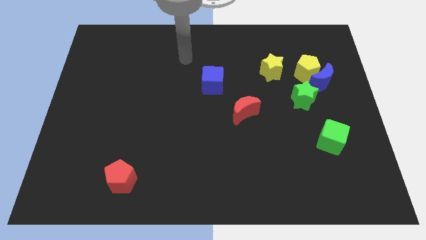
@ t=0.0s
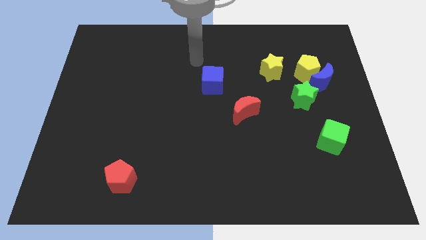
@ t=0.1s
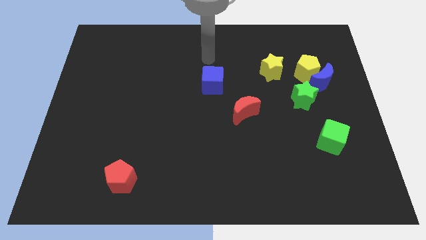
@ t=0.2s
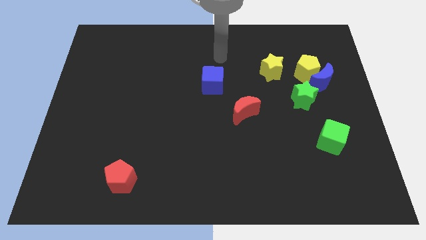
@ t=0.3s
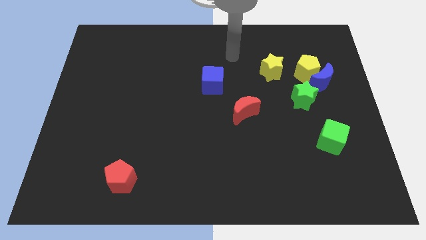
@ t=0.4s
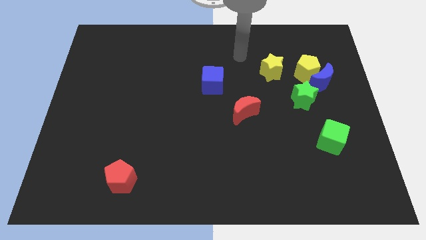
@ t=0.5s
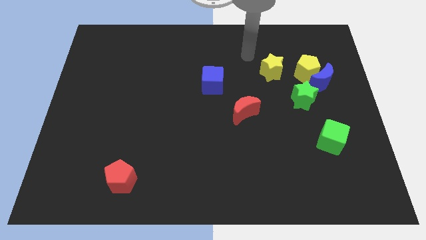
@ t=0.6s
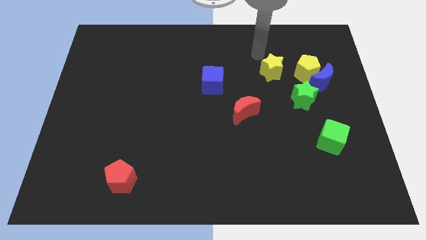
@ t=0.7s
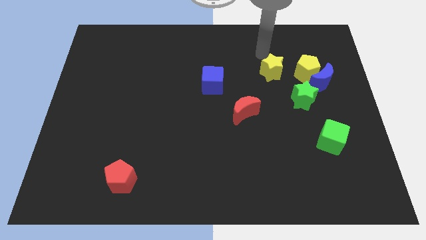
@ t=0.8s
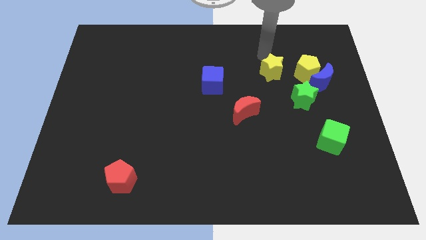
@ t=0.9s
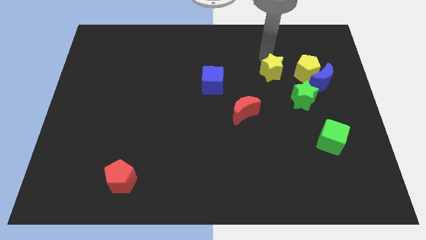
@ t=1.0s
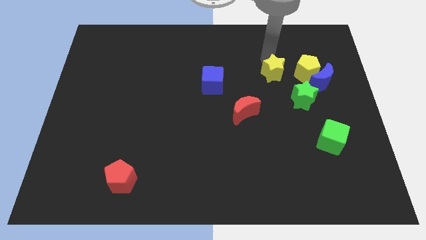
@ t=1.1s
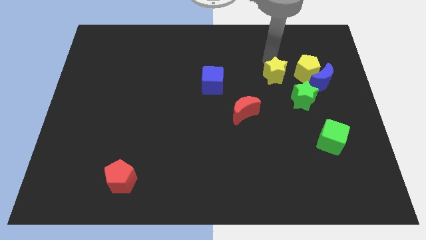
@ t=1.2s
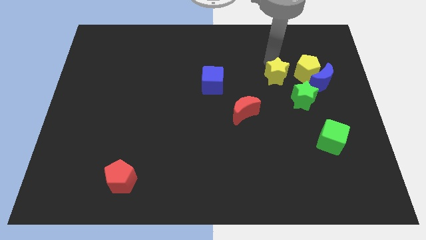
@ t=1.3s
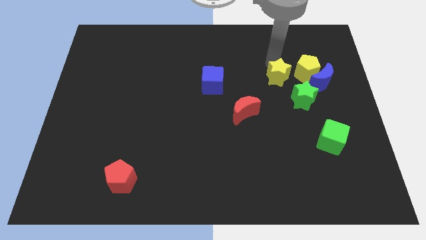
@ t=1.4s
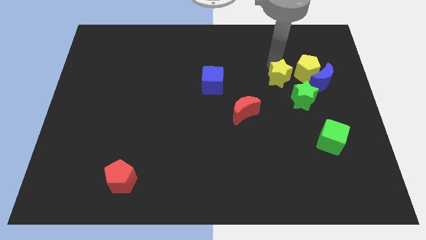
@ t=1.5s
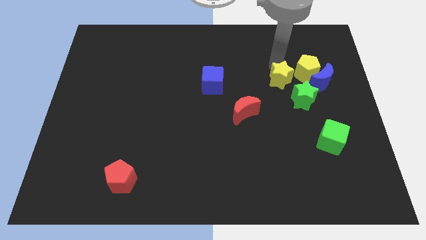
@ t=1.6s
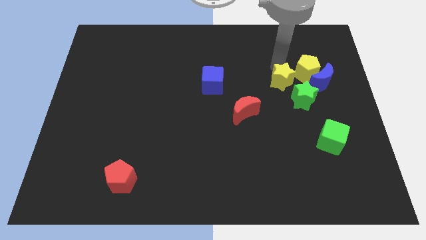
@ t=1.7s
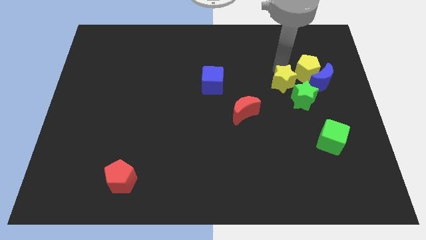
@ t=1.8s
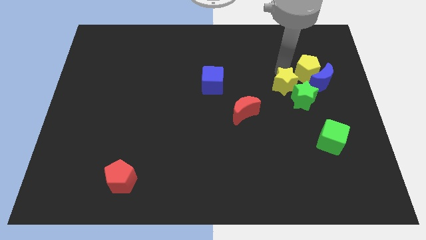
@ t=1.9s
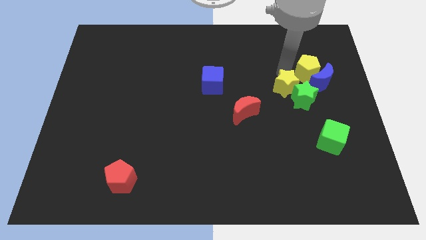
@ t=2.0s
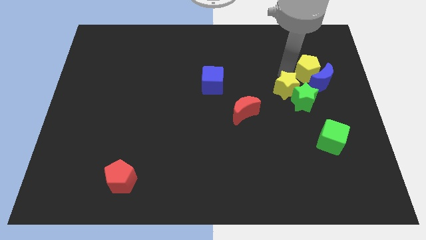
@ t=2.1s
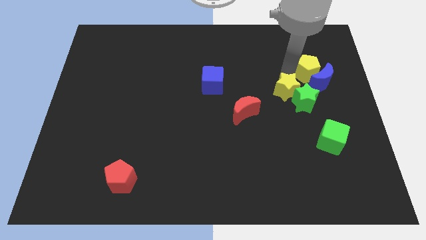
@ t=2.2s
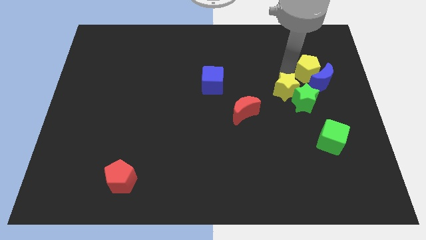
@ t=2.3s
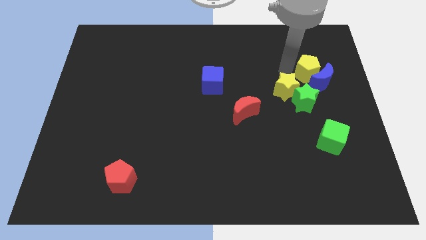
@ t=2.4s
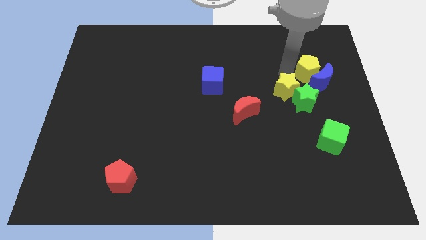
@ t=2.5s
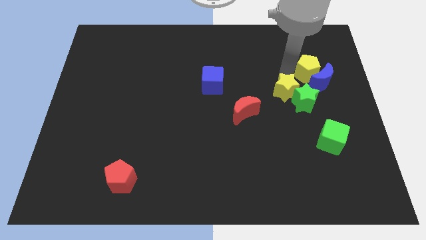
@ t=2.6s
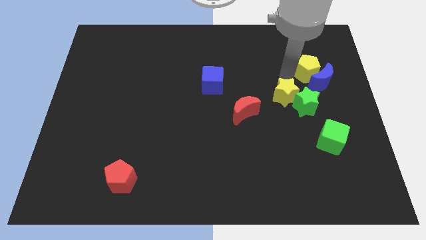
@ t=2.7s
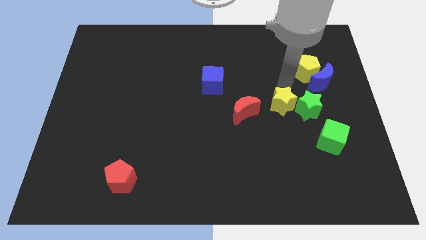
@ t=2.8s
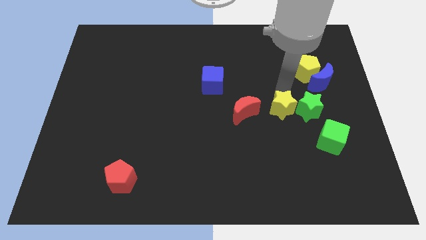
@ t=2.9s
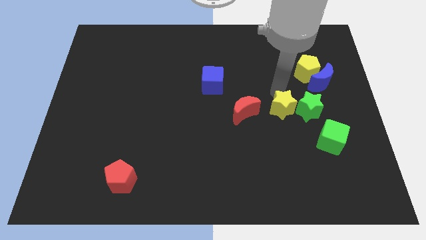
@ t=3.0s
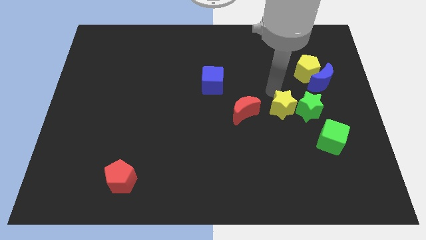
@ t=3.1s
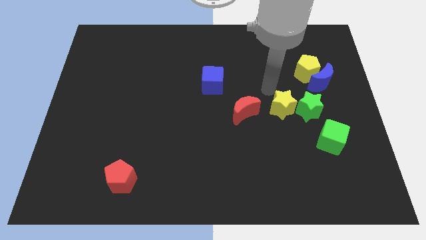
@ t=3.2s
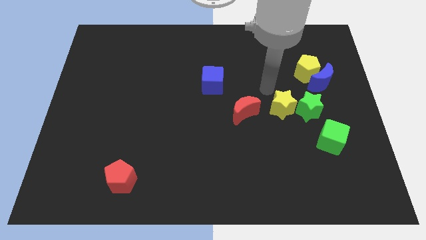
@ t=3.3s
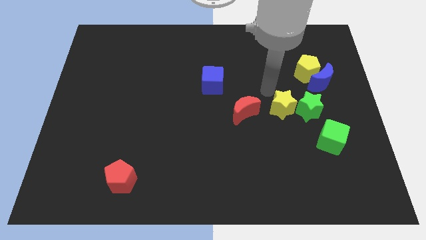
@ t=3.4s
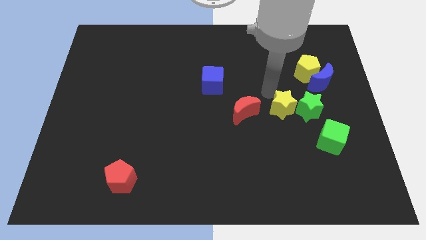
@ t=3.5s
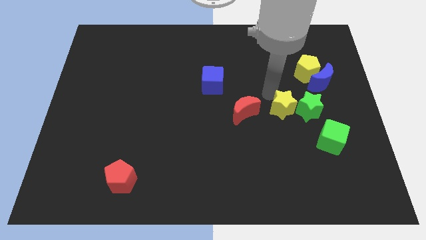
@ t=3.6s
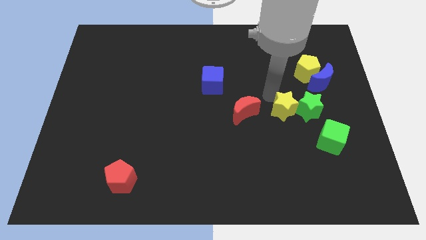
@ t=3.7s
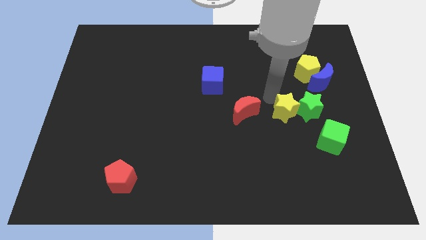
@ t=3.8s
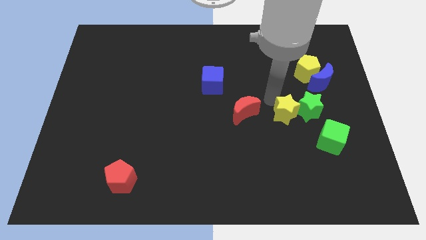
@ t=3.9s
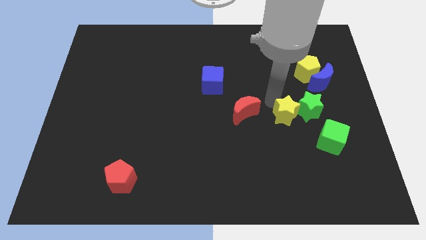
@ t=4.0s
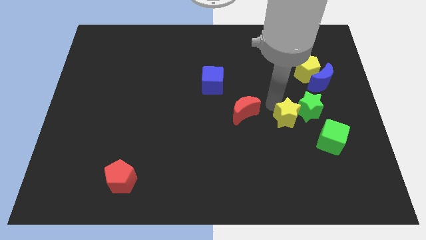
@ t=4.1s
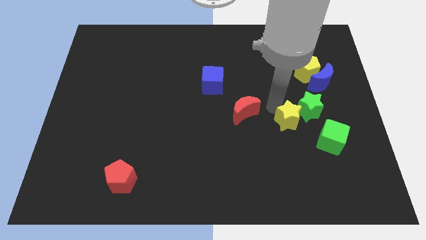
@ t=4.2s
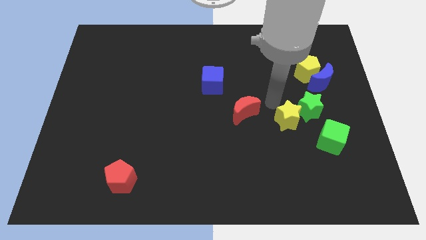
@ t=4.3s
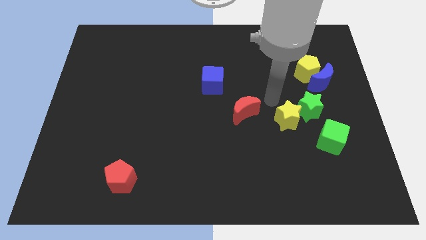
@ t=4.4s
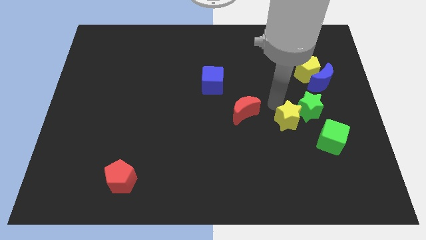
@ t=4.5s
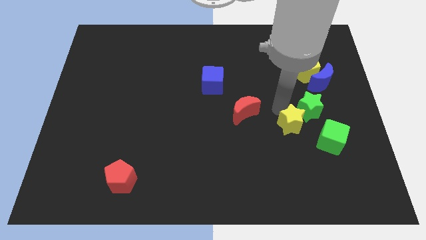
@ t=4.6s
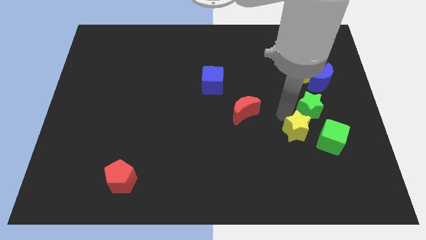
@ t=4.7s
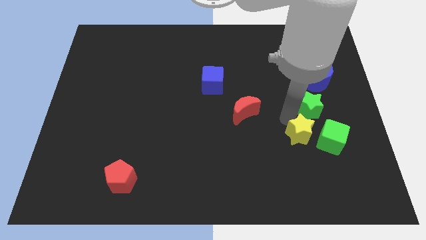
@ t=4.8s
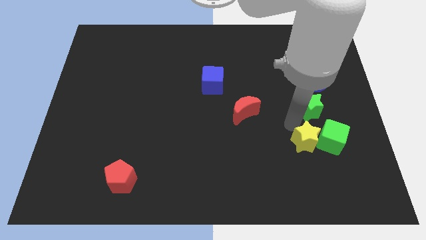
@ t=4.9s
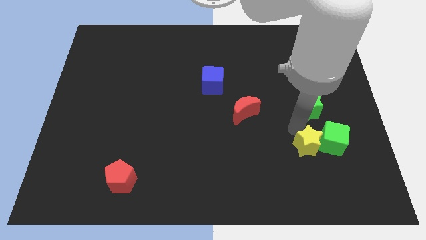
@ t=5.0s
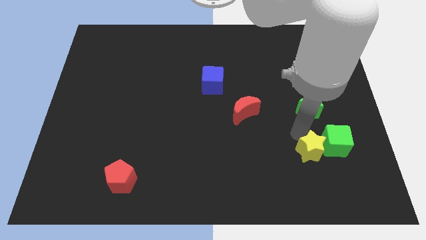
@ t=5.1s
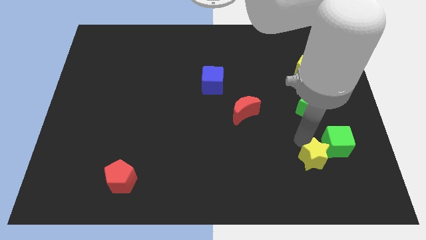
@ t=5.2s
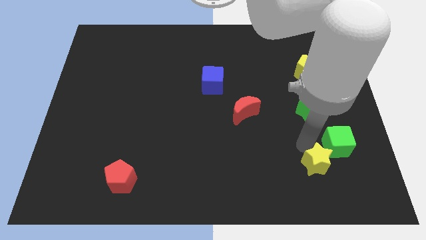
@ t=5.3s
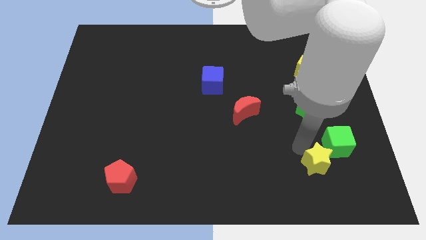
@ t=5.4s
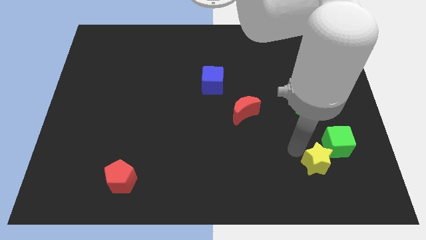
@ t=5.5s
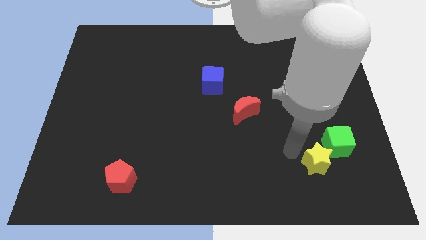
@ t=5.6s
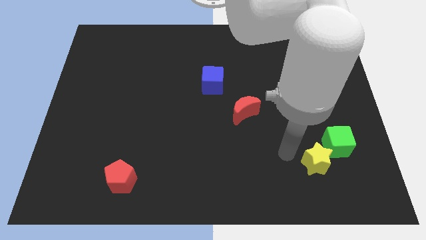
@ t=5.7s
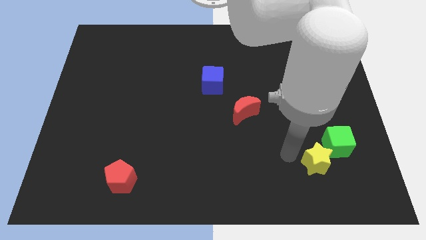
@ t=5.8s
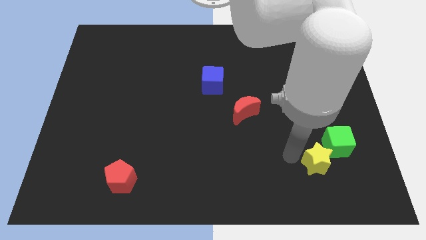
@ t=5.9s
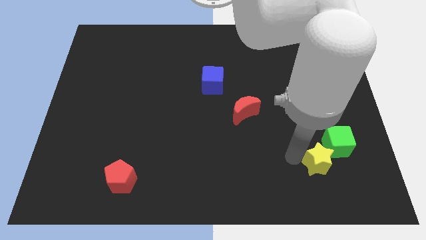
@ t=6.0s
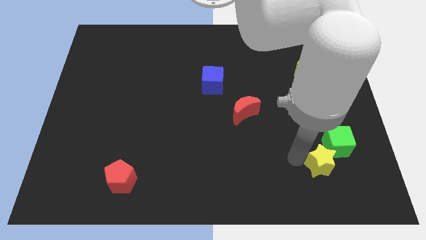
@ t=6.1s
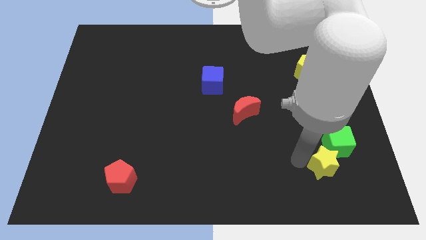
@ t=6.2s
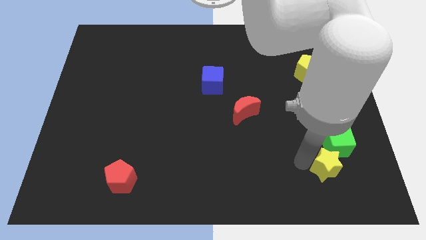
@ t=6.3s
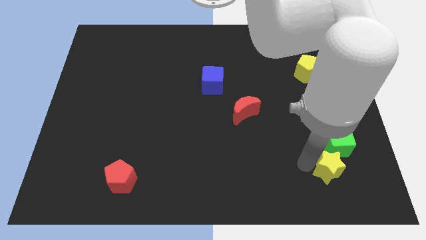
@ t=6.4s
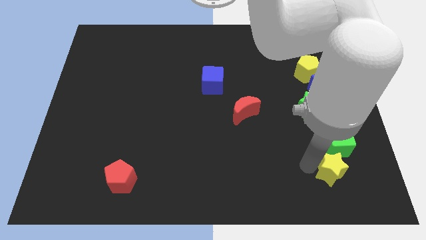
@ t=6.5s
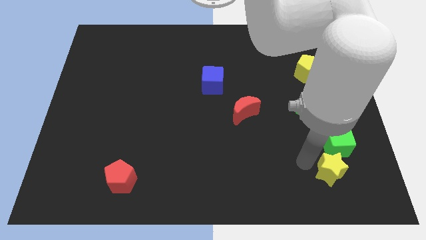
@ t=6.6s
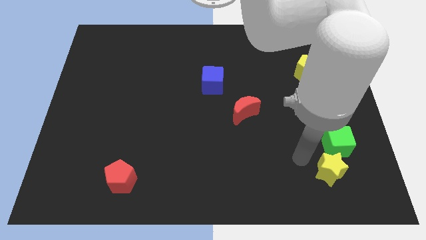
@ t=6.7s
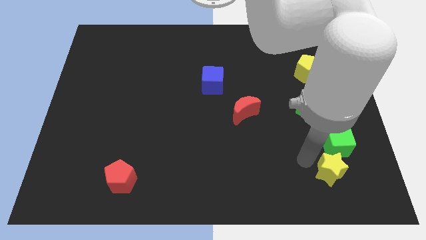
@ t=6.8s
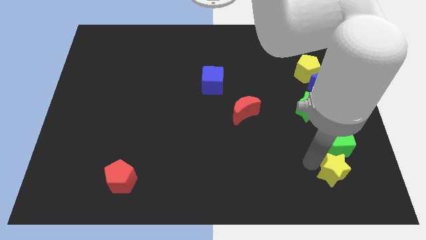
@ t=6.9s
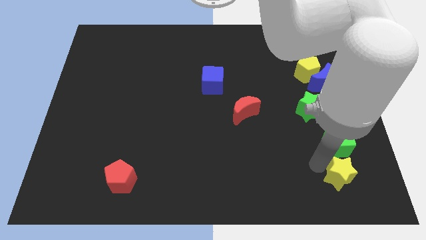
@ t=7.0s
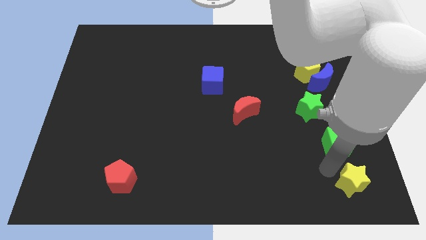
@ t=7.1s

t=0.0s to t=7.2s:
put the yellow star to the lower right corner
